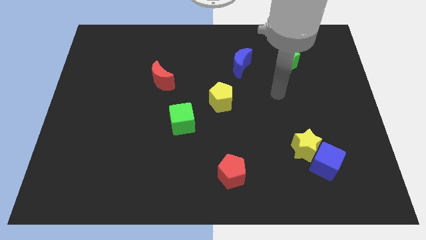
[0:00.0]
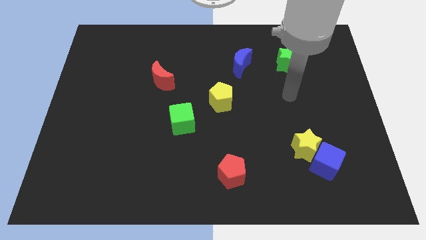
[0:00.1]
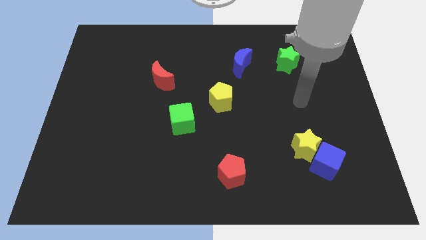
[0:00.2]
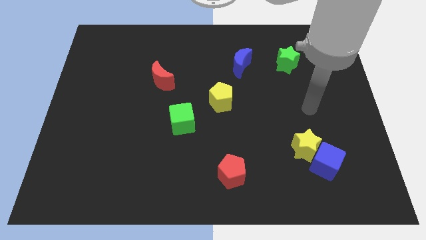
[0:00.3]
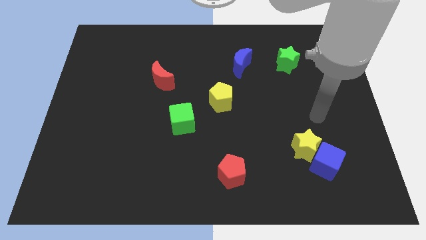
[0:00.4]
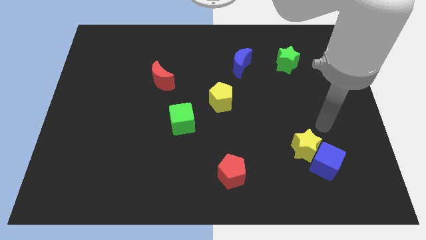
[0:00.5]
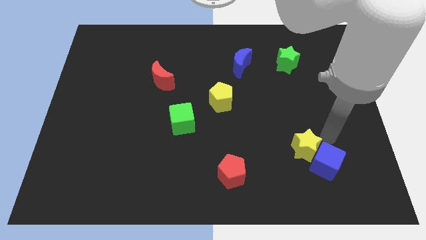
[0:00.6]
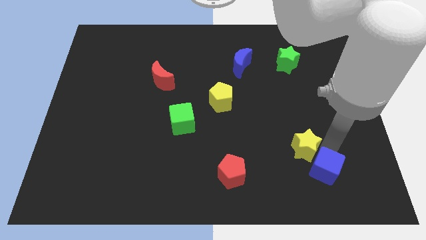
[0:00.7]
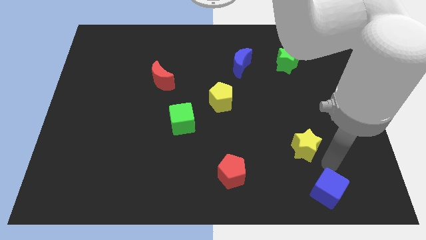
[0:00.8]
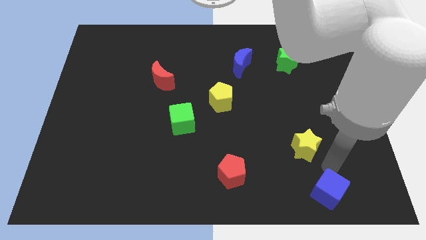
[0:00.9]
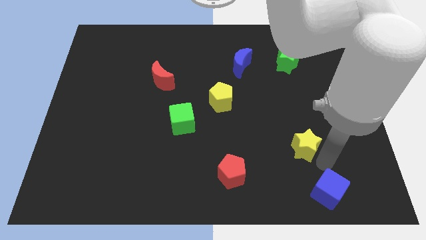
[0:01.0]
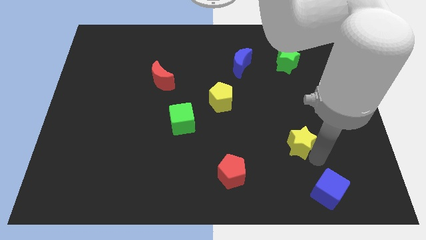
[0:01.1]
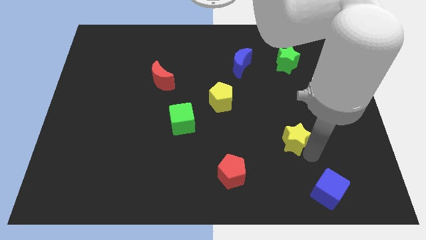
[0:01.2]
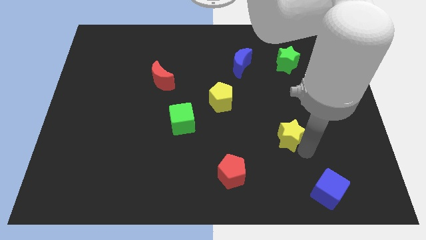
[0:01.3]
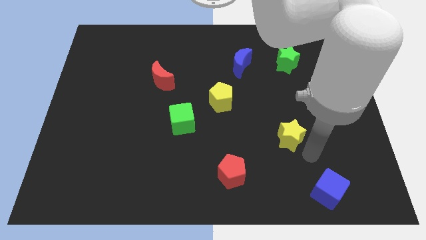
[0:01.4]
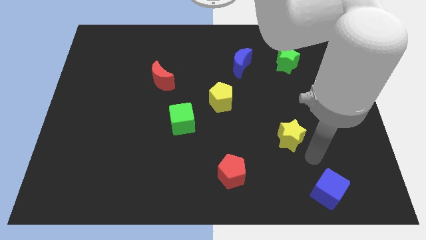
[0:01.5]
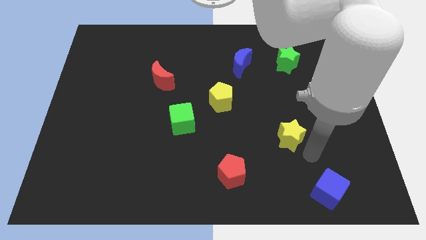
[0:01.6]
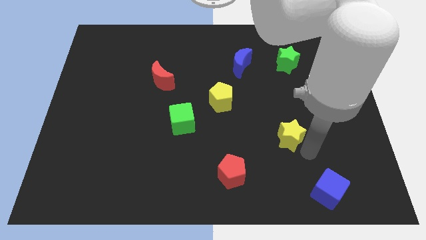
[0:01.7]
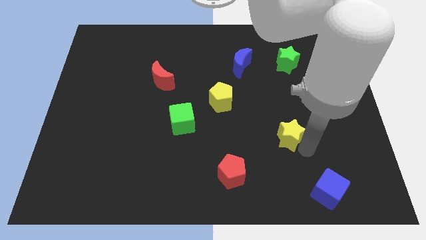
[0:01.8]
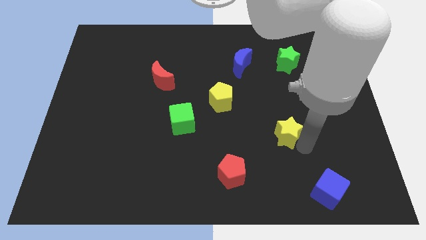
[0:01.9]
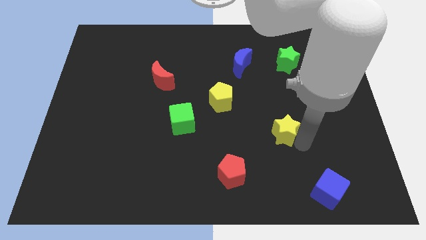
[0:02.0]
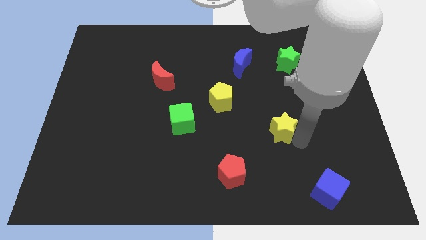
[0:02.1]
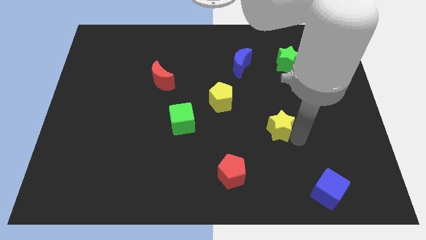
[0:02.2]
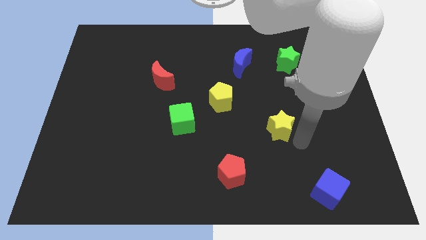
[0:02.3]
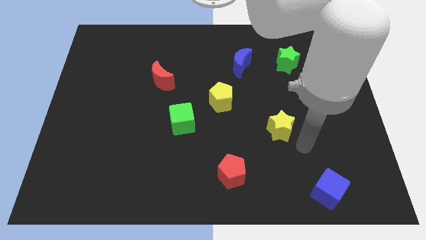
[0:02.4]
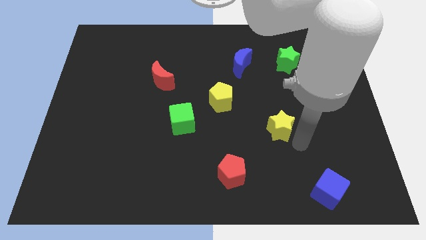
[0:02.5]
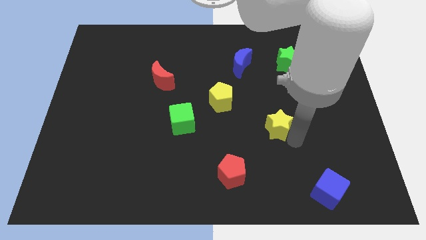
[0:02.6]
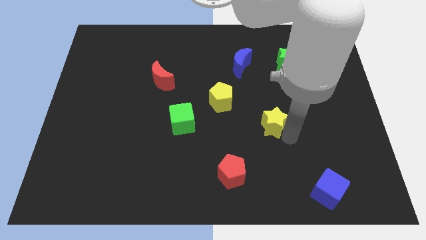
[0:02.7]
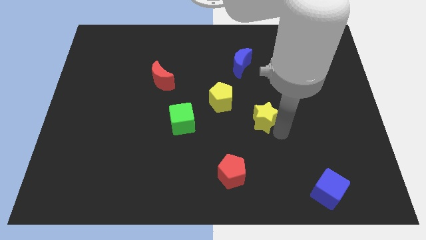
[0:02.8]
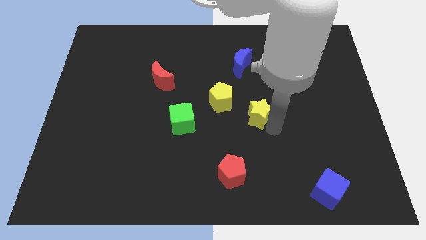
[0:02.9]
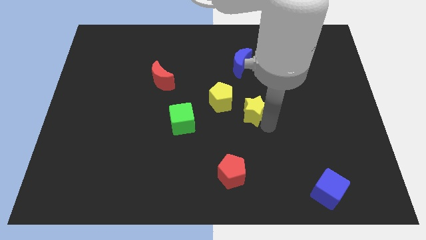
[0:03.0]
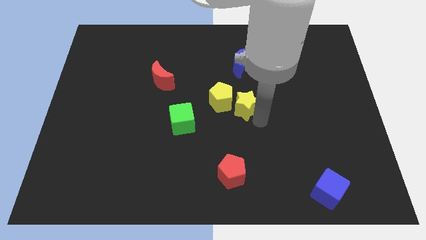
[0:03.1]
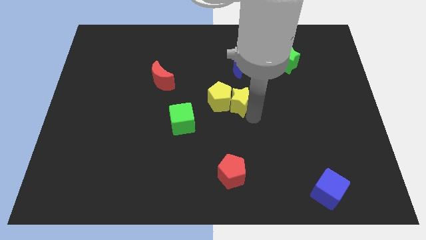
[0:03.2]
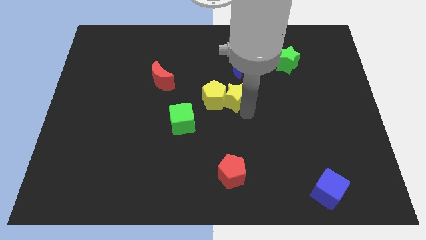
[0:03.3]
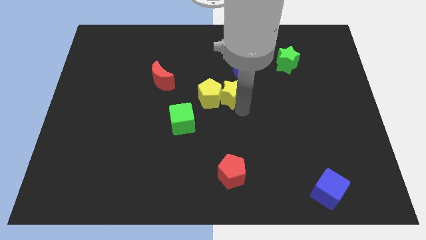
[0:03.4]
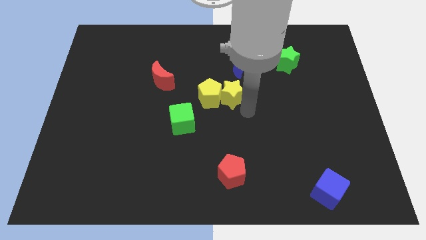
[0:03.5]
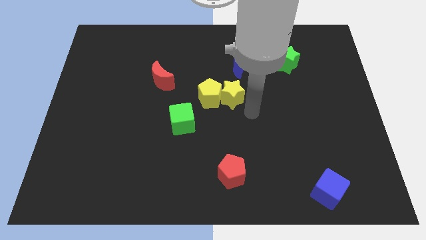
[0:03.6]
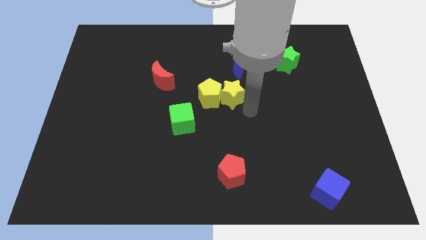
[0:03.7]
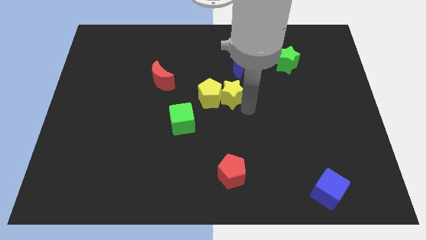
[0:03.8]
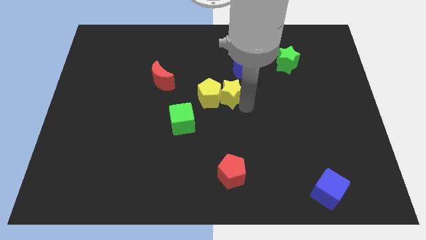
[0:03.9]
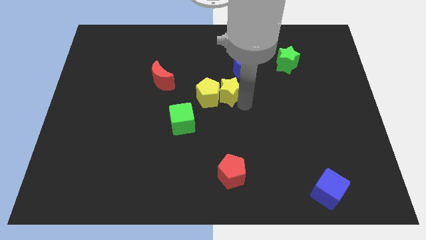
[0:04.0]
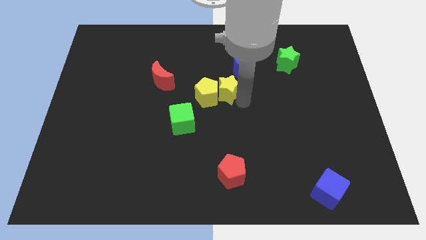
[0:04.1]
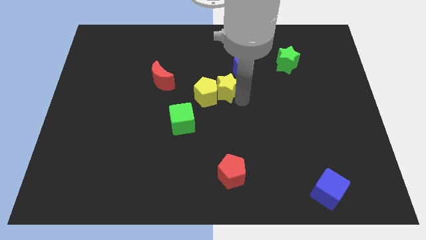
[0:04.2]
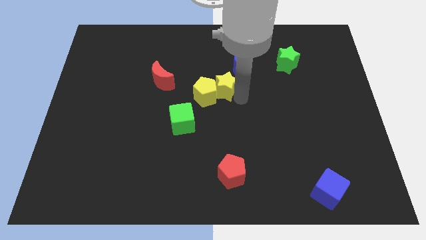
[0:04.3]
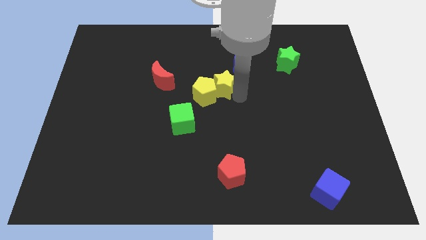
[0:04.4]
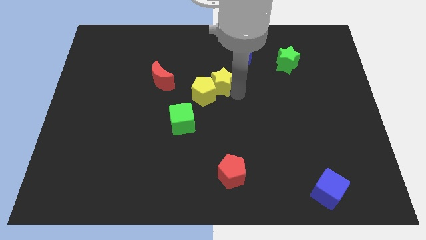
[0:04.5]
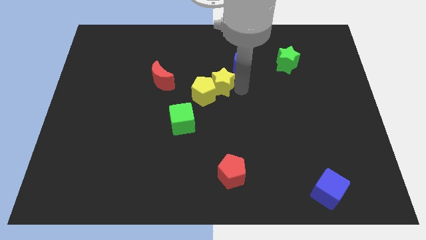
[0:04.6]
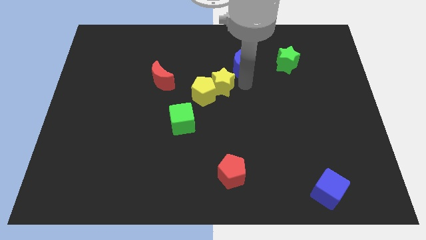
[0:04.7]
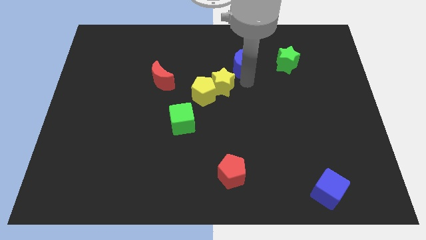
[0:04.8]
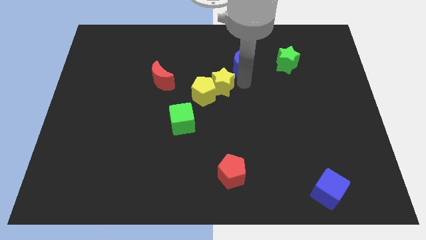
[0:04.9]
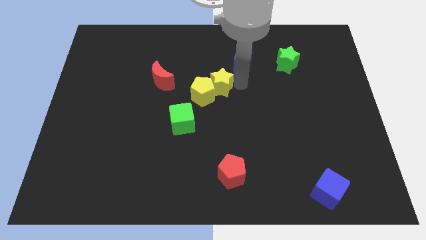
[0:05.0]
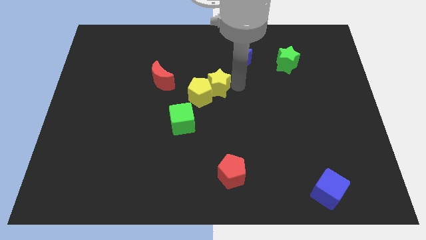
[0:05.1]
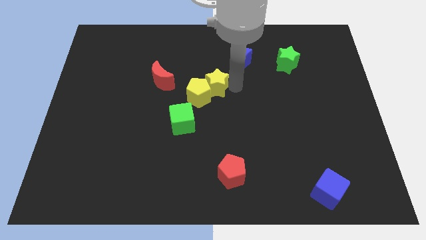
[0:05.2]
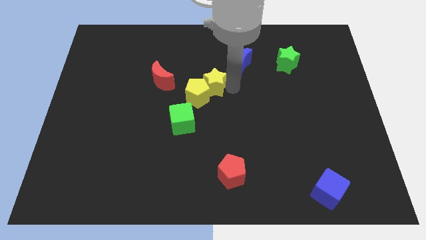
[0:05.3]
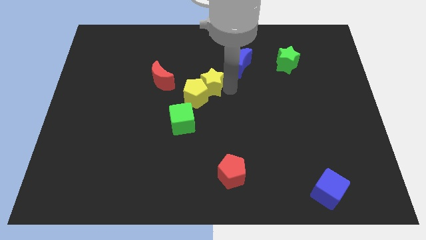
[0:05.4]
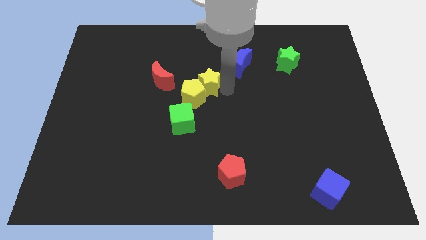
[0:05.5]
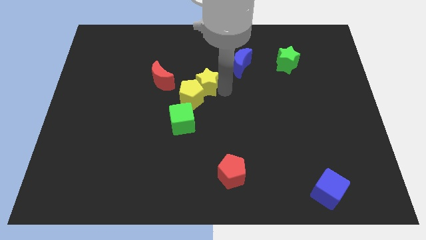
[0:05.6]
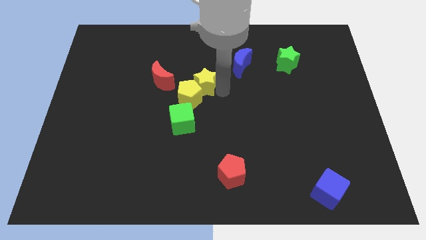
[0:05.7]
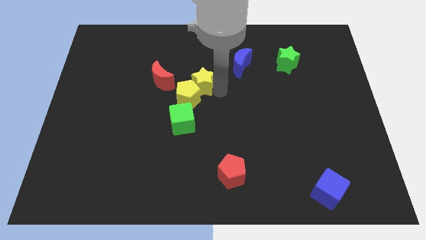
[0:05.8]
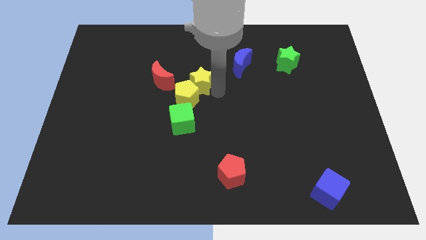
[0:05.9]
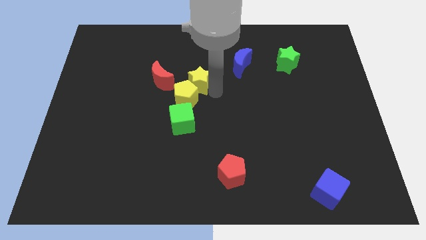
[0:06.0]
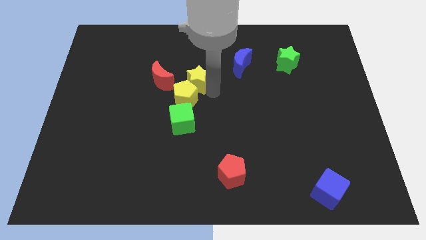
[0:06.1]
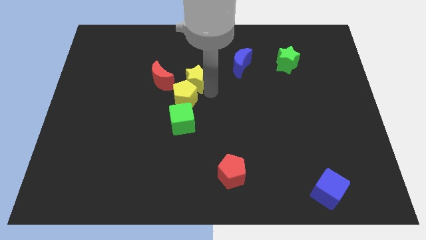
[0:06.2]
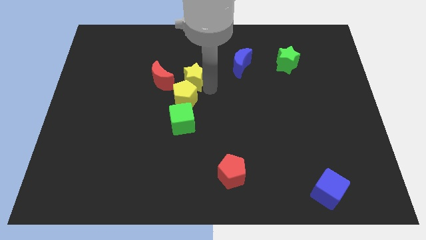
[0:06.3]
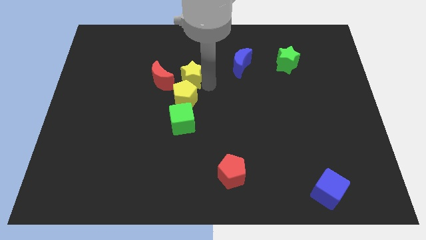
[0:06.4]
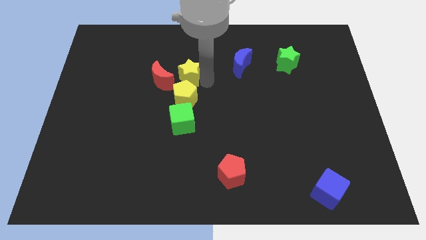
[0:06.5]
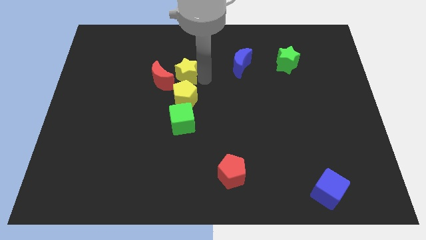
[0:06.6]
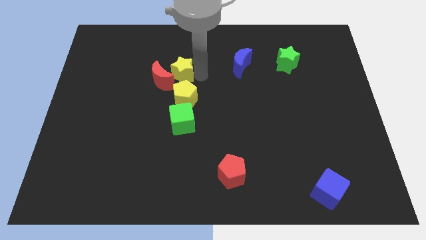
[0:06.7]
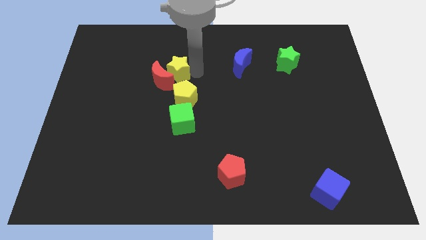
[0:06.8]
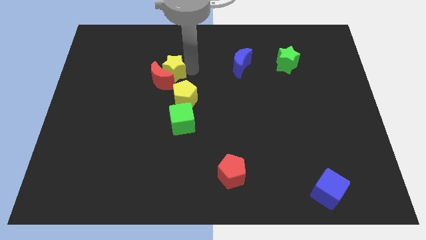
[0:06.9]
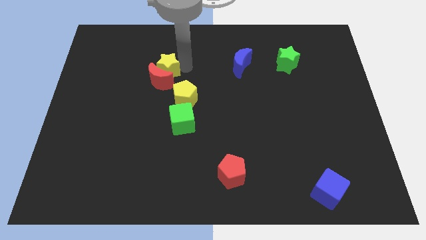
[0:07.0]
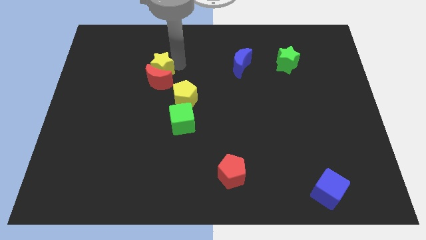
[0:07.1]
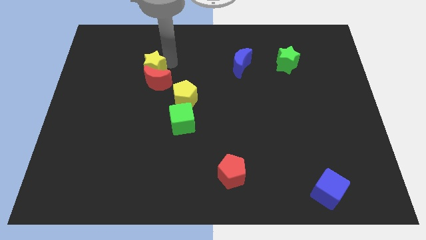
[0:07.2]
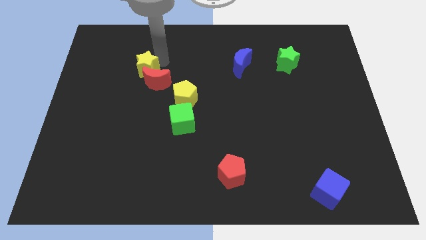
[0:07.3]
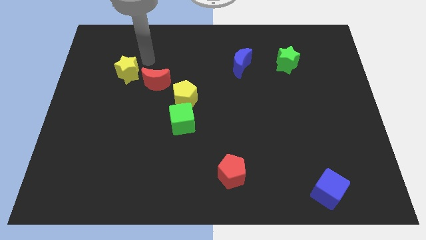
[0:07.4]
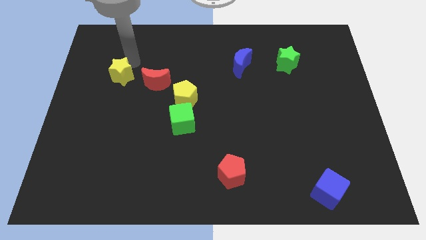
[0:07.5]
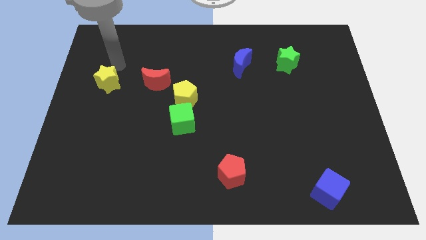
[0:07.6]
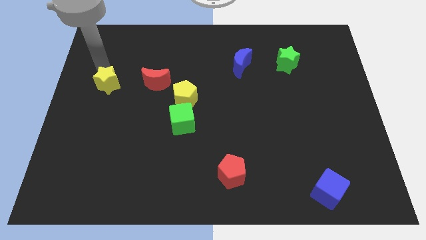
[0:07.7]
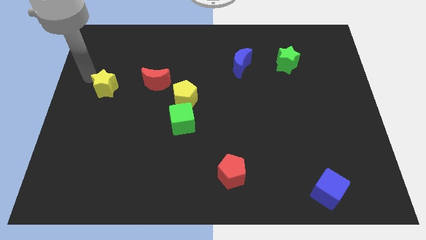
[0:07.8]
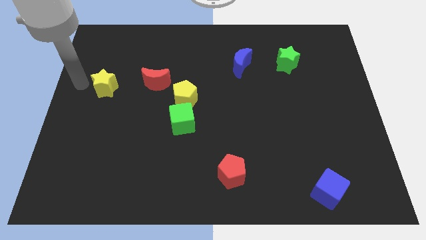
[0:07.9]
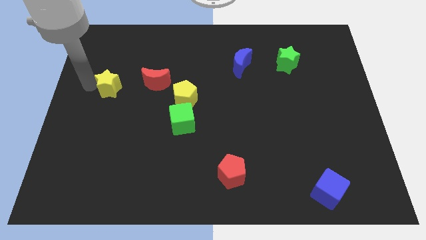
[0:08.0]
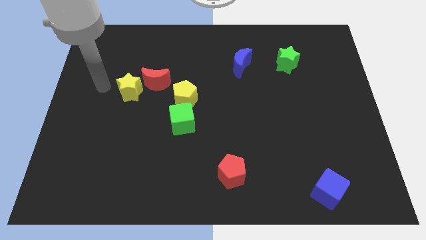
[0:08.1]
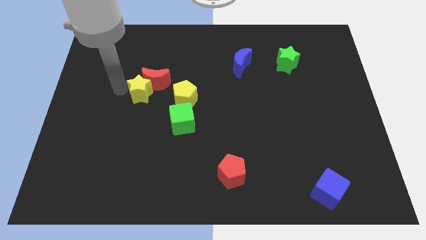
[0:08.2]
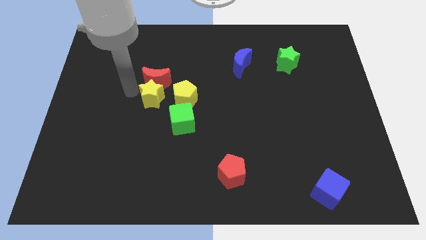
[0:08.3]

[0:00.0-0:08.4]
move the yellow star diagonally up and to the left of the green cube
